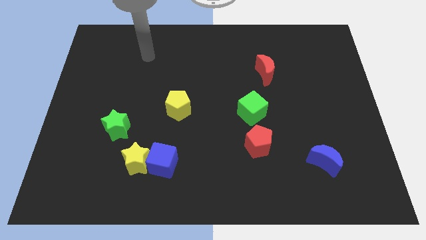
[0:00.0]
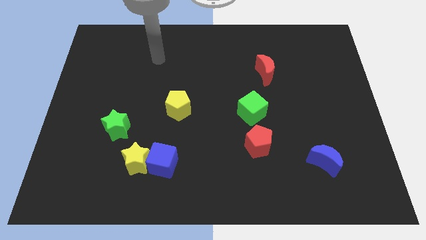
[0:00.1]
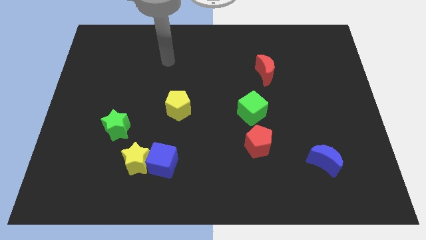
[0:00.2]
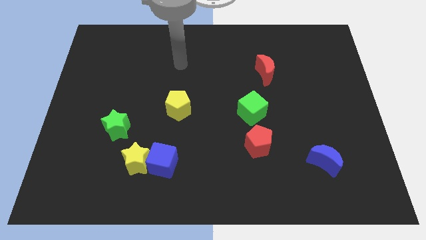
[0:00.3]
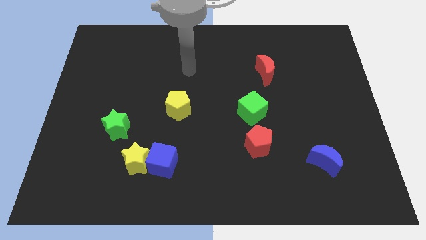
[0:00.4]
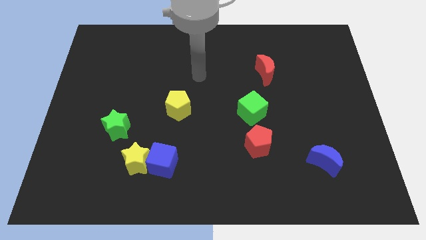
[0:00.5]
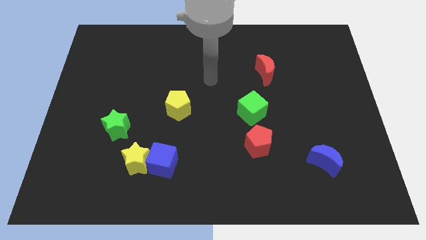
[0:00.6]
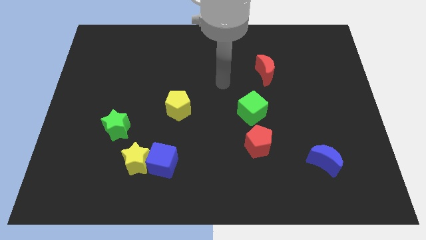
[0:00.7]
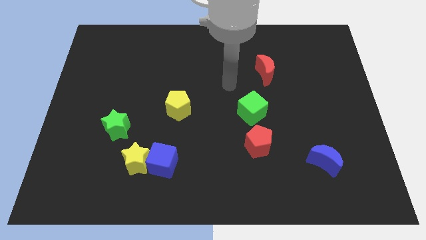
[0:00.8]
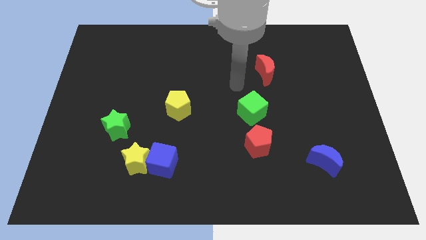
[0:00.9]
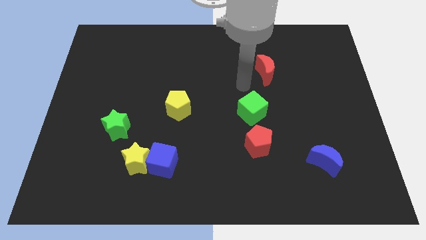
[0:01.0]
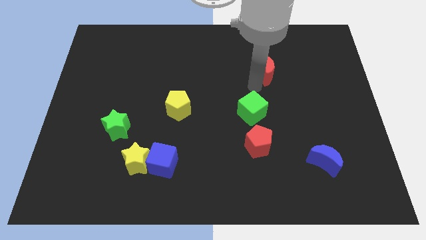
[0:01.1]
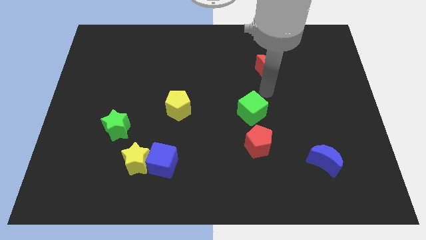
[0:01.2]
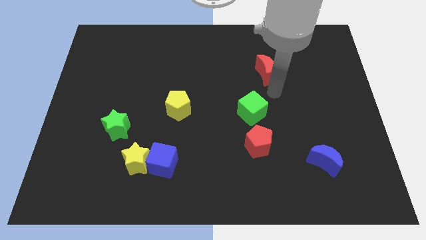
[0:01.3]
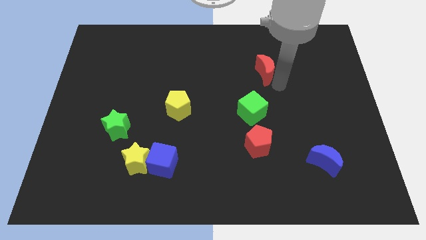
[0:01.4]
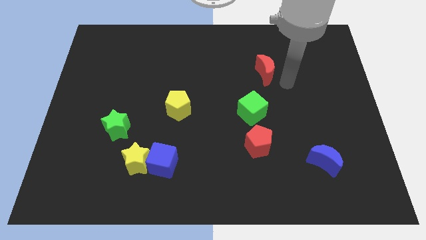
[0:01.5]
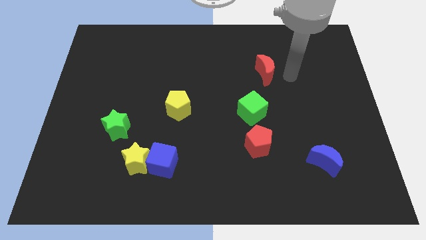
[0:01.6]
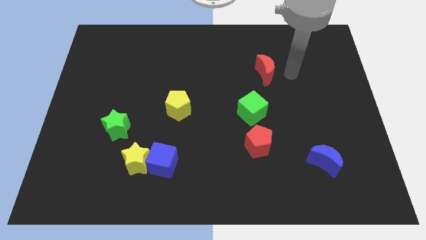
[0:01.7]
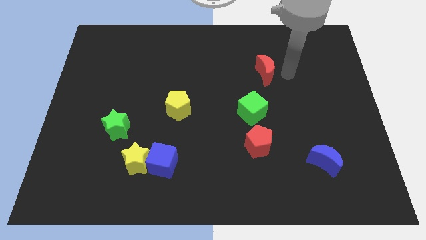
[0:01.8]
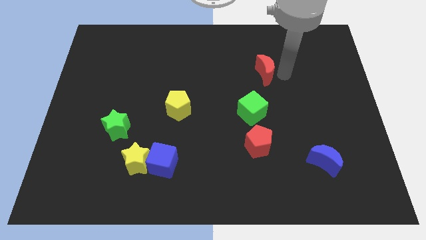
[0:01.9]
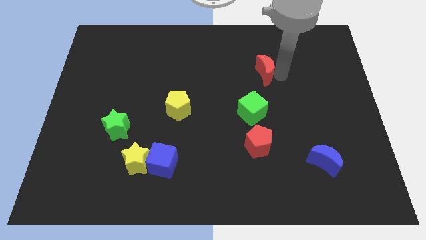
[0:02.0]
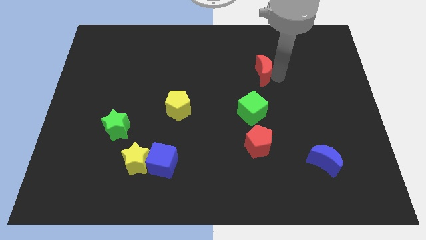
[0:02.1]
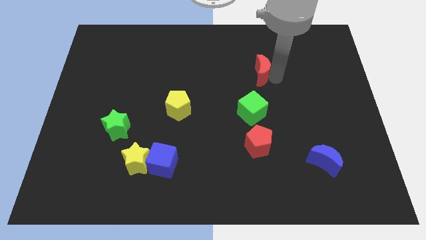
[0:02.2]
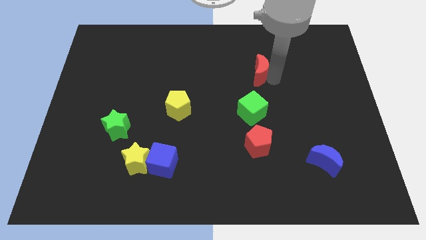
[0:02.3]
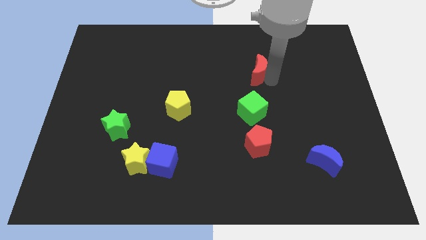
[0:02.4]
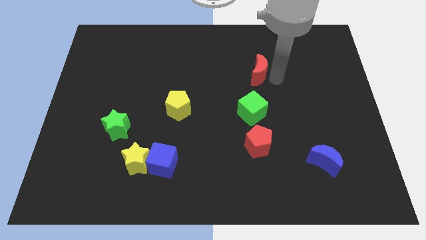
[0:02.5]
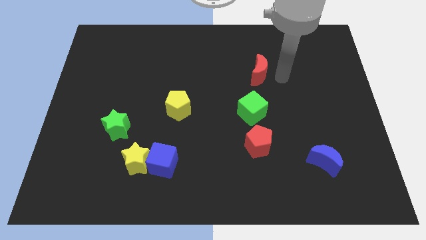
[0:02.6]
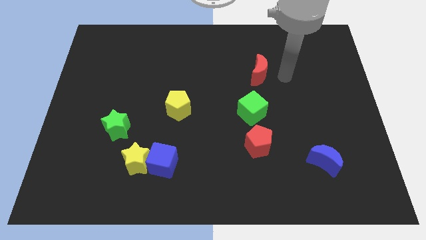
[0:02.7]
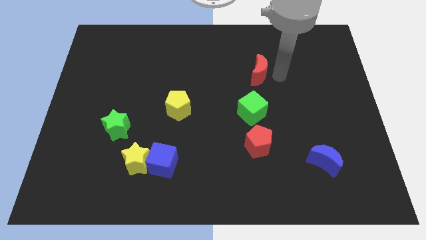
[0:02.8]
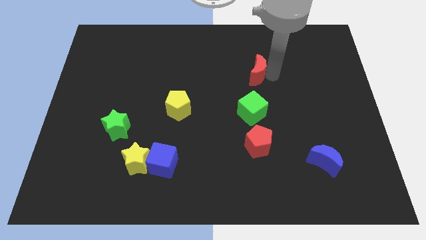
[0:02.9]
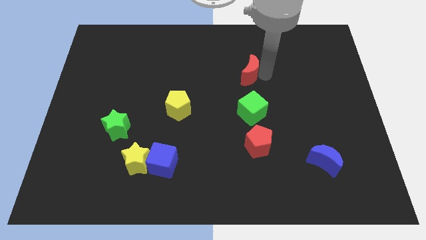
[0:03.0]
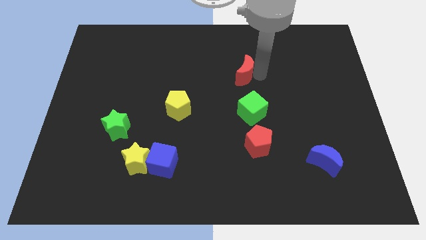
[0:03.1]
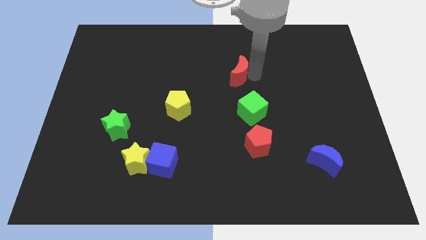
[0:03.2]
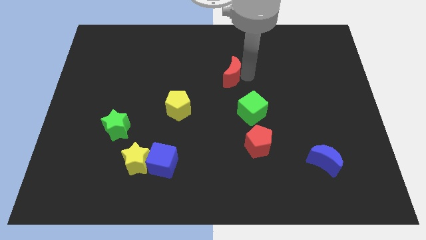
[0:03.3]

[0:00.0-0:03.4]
push the red moon a bit to the left

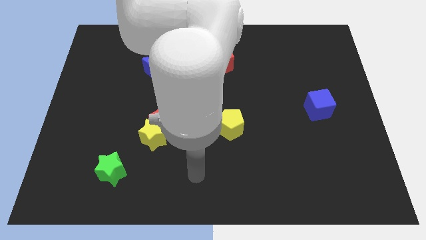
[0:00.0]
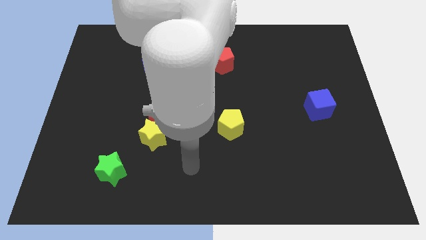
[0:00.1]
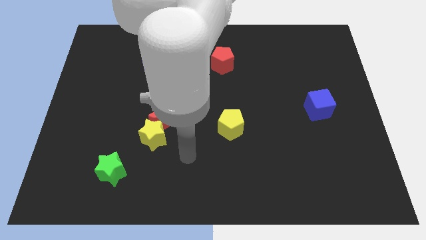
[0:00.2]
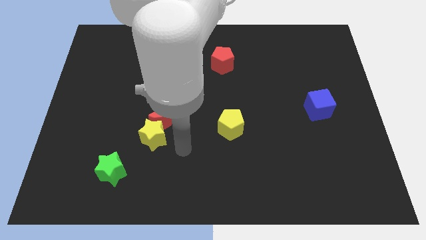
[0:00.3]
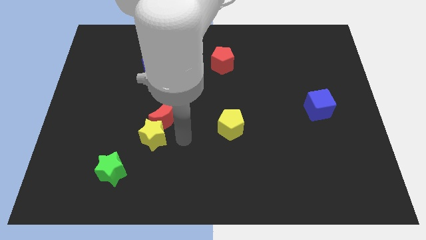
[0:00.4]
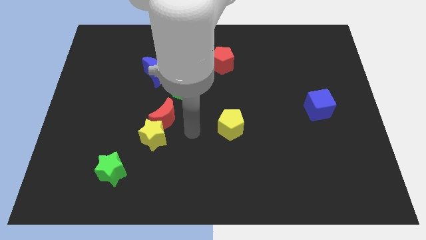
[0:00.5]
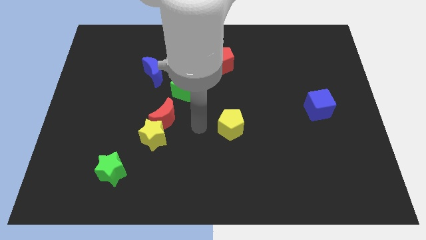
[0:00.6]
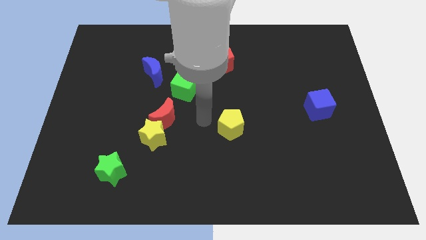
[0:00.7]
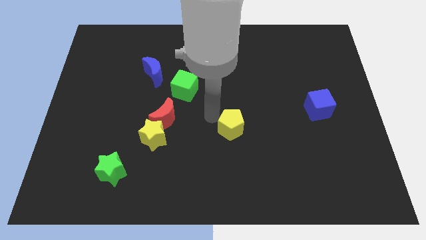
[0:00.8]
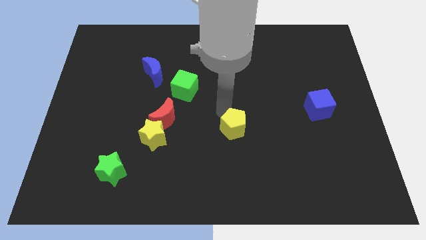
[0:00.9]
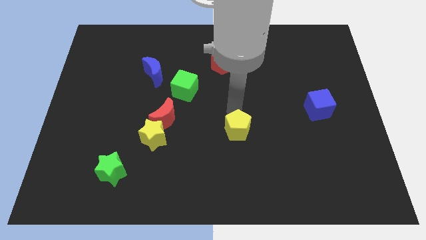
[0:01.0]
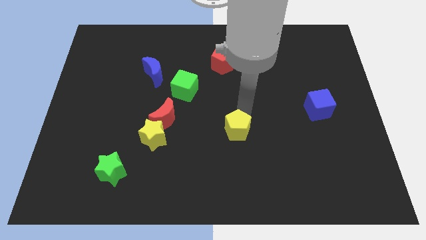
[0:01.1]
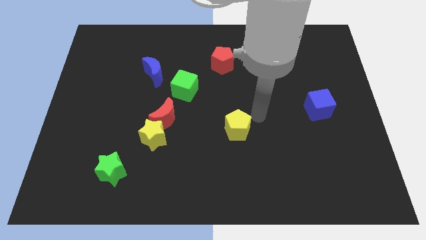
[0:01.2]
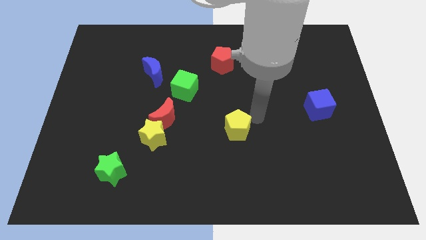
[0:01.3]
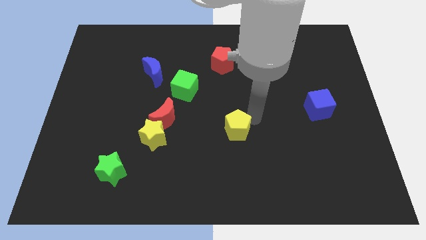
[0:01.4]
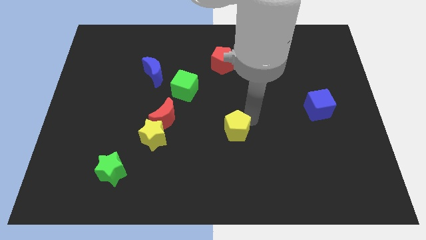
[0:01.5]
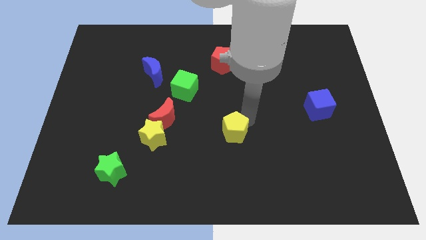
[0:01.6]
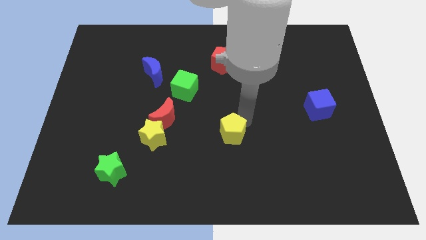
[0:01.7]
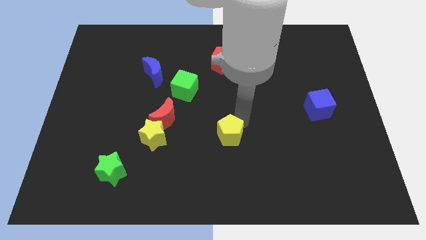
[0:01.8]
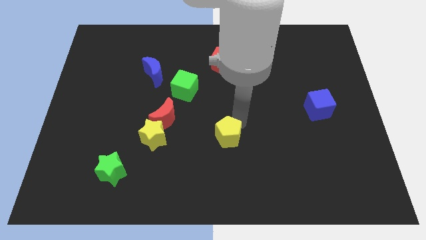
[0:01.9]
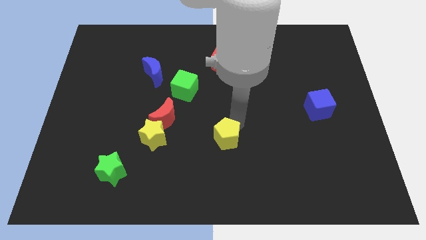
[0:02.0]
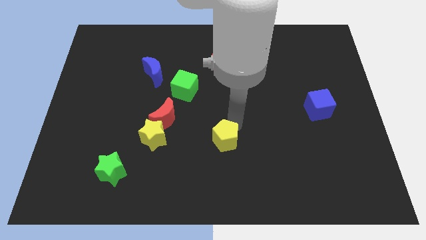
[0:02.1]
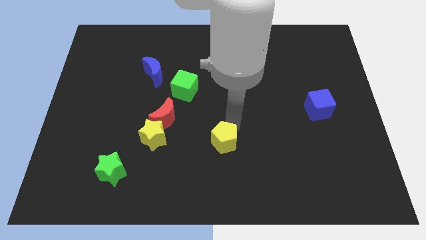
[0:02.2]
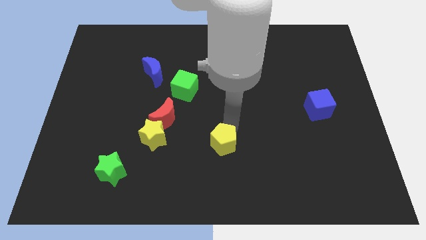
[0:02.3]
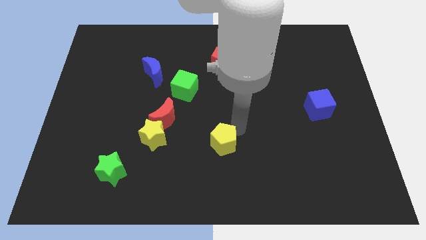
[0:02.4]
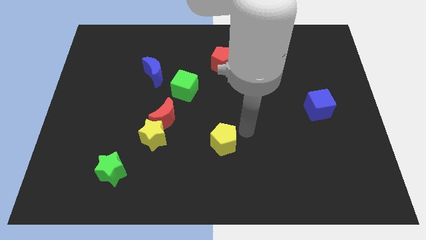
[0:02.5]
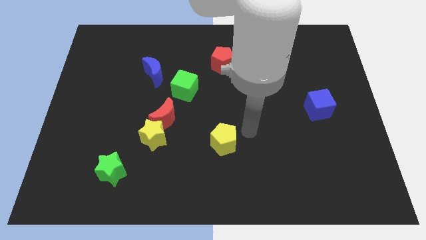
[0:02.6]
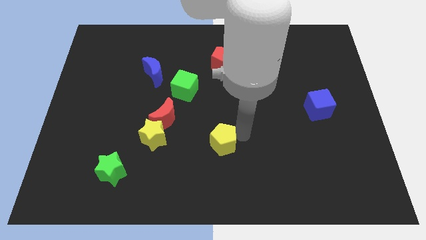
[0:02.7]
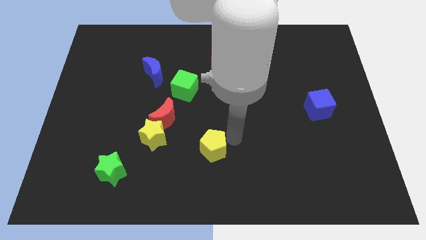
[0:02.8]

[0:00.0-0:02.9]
push the yellow pentagon slightly diagonally down and to the left

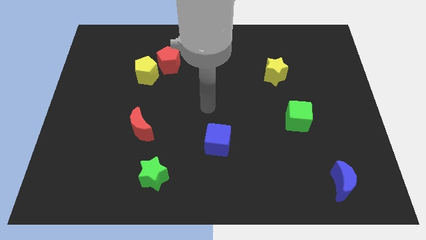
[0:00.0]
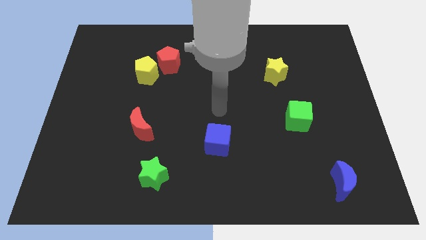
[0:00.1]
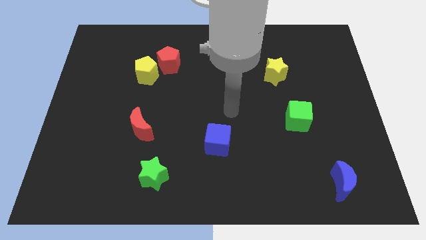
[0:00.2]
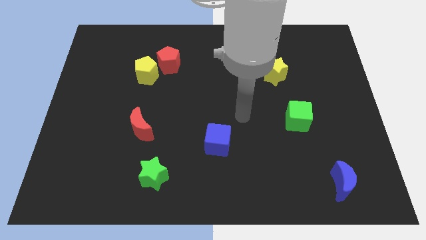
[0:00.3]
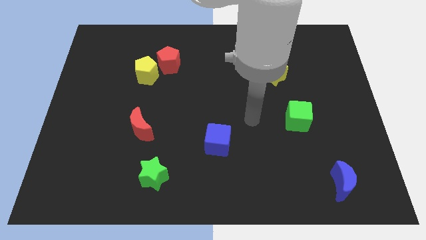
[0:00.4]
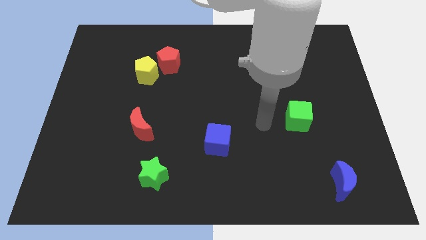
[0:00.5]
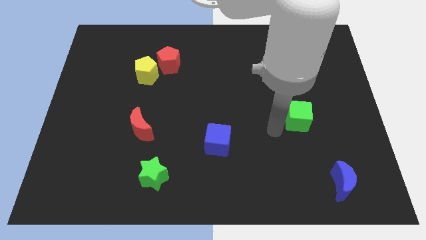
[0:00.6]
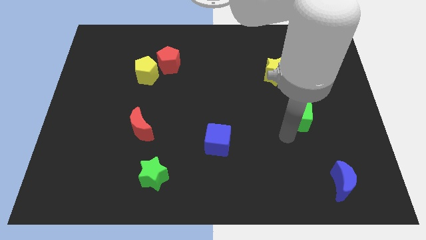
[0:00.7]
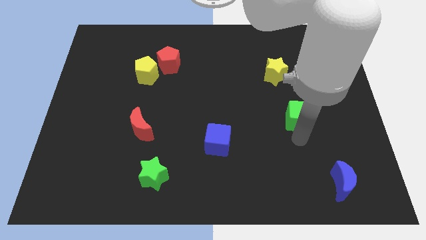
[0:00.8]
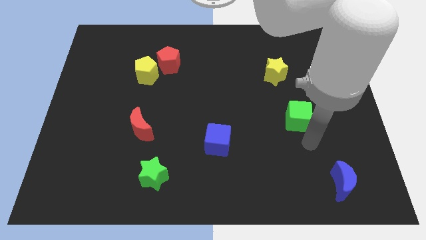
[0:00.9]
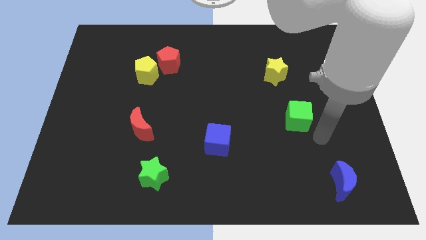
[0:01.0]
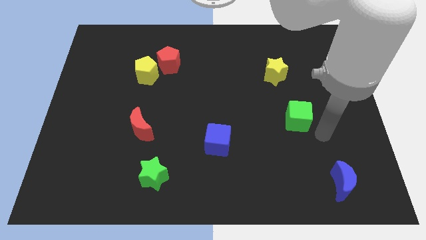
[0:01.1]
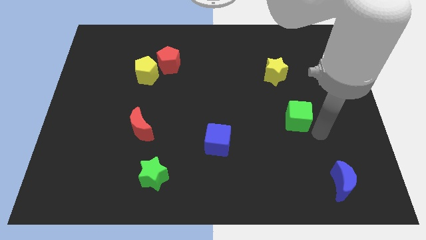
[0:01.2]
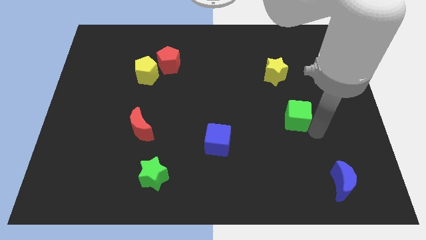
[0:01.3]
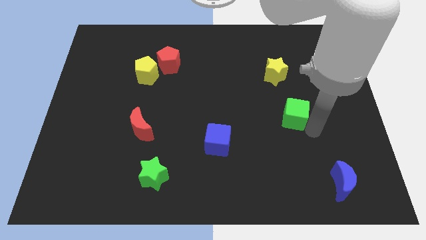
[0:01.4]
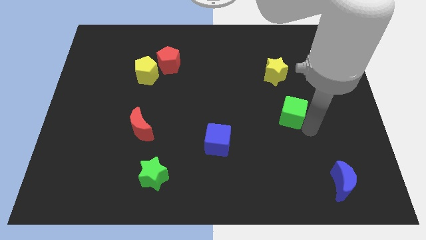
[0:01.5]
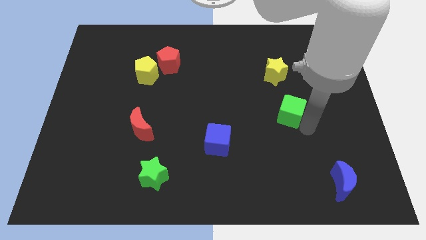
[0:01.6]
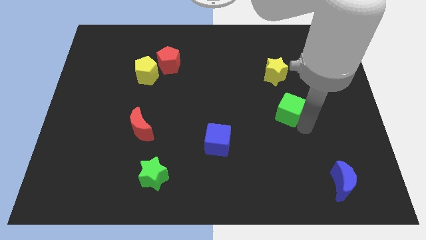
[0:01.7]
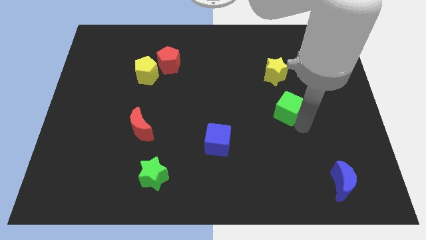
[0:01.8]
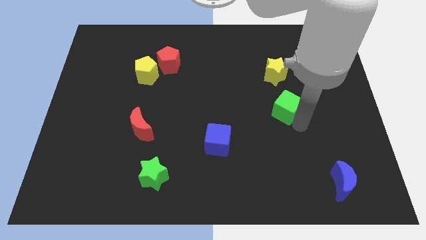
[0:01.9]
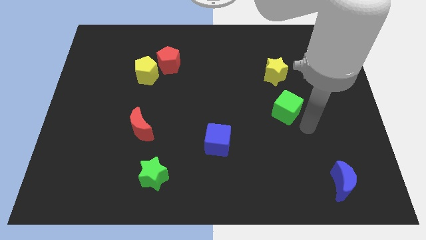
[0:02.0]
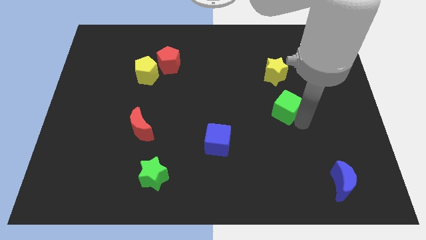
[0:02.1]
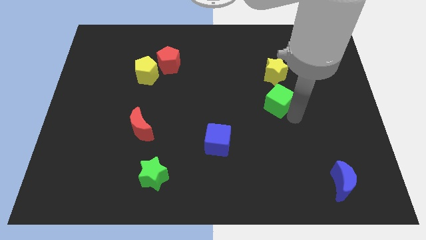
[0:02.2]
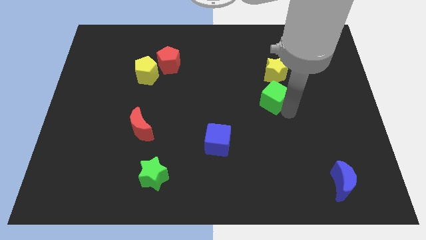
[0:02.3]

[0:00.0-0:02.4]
slide the green cube a bit up and then to the left
